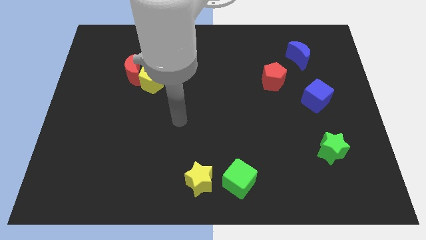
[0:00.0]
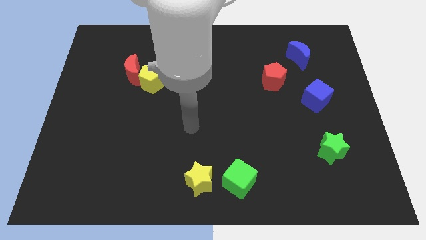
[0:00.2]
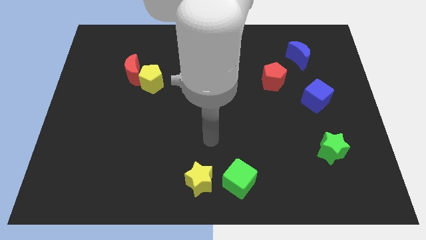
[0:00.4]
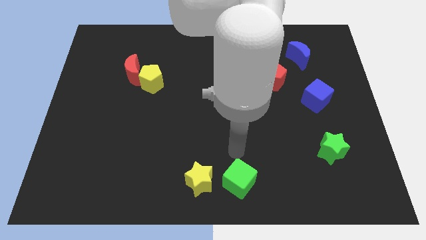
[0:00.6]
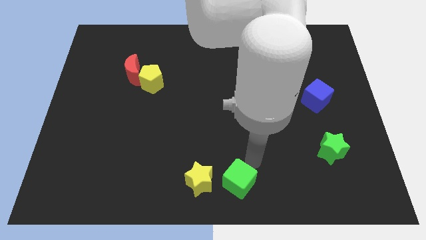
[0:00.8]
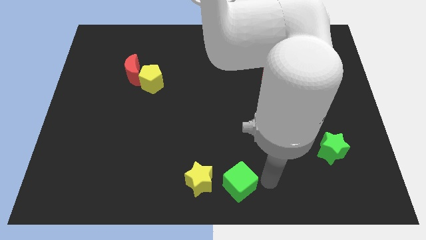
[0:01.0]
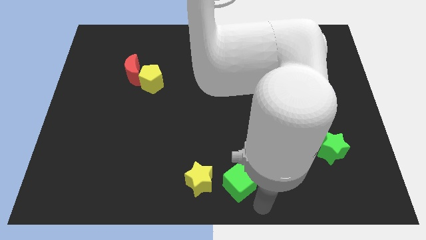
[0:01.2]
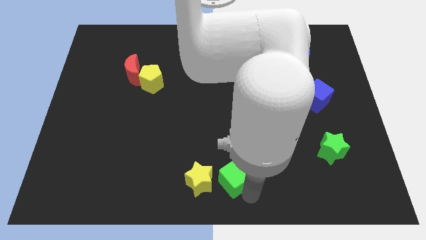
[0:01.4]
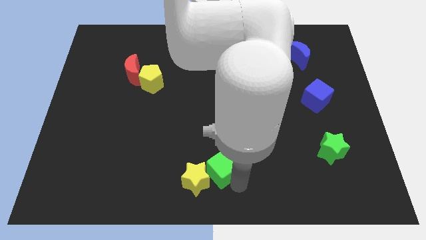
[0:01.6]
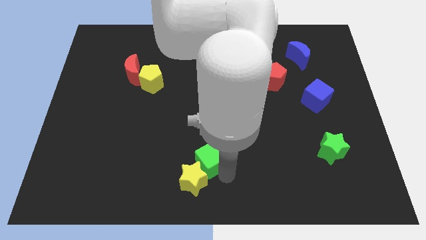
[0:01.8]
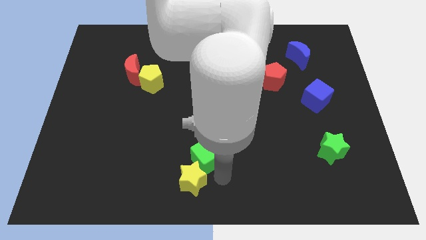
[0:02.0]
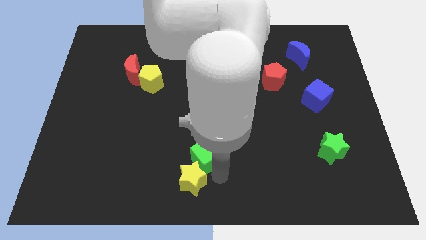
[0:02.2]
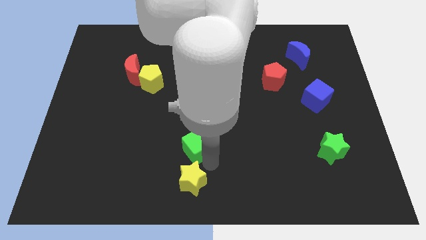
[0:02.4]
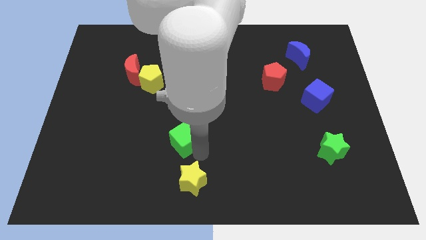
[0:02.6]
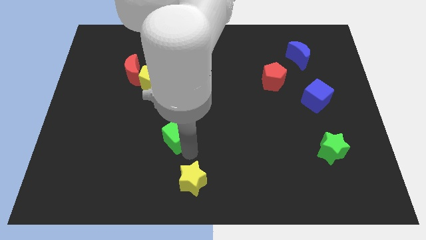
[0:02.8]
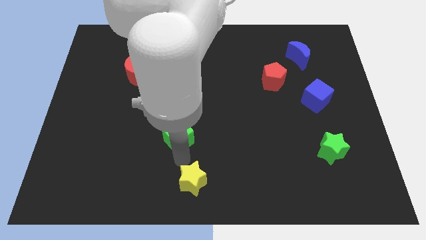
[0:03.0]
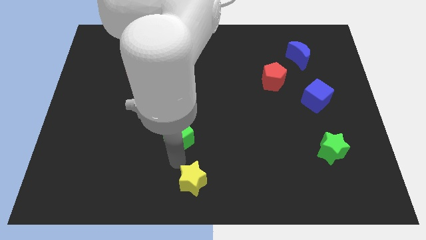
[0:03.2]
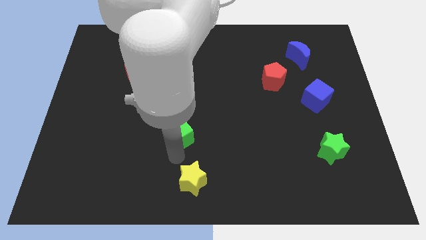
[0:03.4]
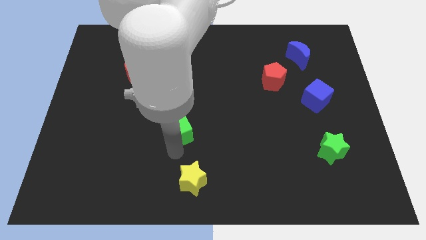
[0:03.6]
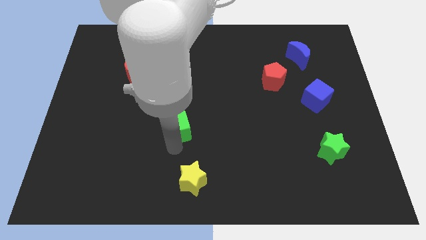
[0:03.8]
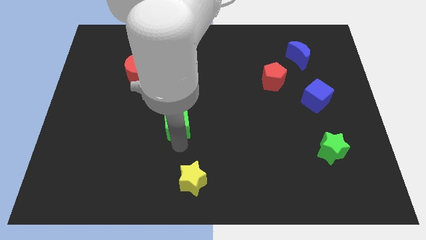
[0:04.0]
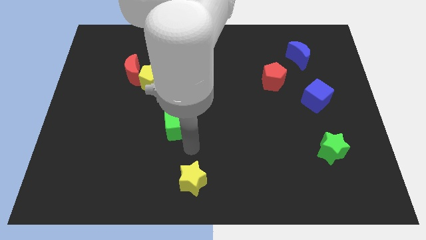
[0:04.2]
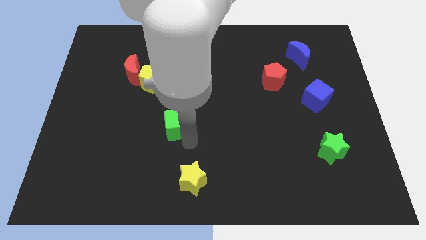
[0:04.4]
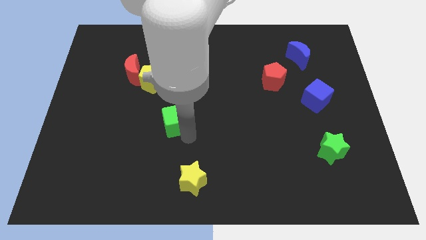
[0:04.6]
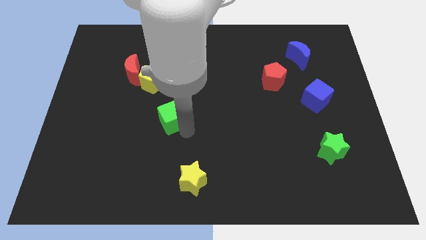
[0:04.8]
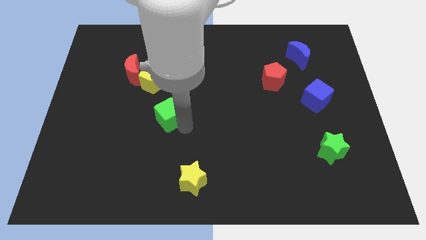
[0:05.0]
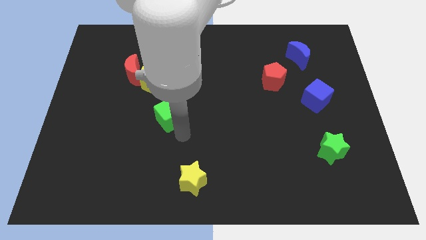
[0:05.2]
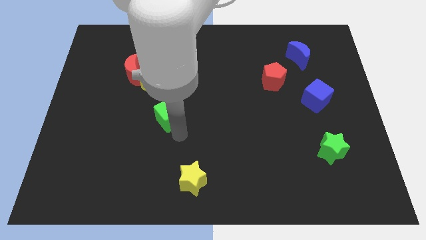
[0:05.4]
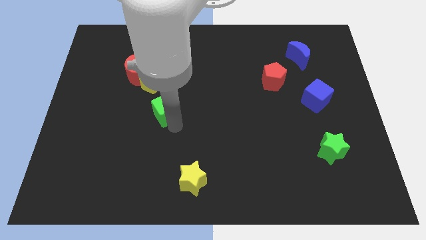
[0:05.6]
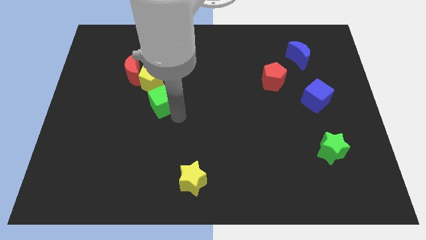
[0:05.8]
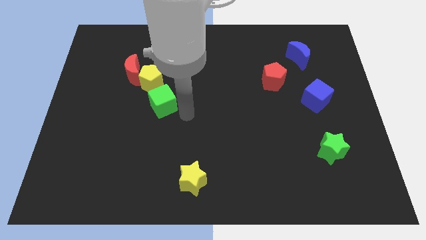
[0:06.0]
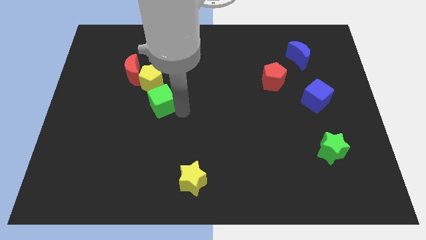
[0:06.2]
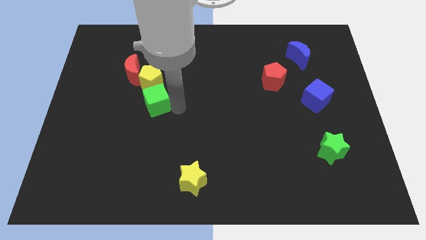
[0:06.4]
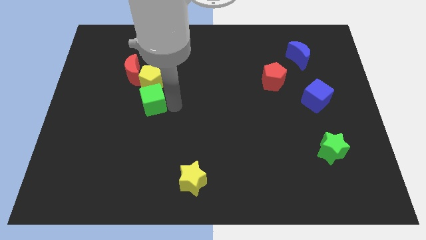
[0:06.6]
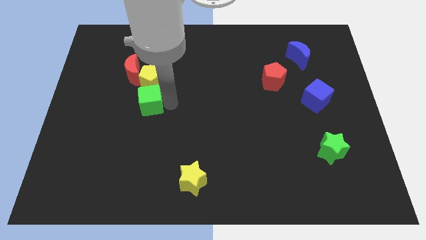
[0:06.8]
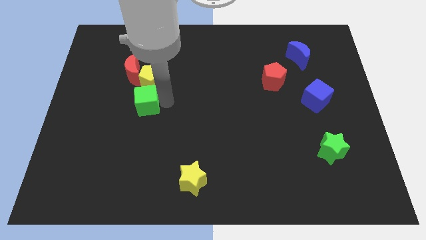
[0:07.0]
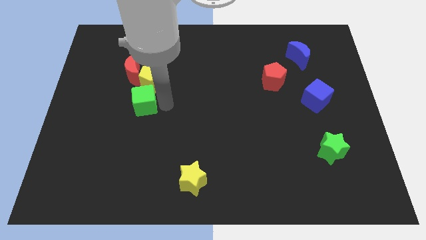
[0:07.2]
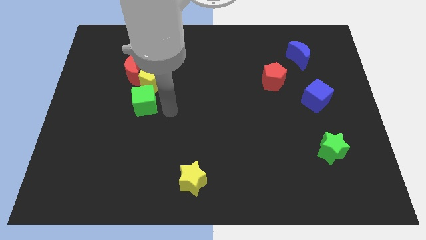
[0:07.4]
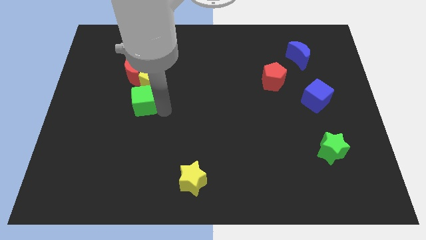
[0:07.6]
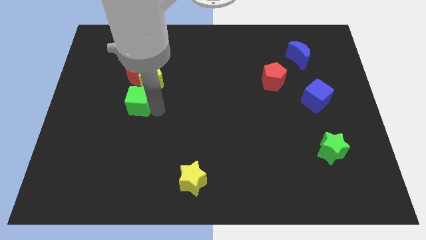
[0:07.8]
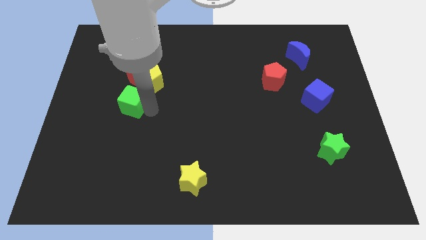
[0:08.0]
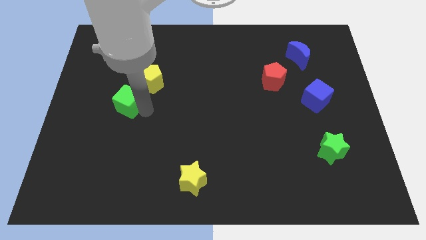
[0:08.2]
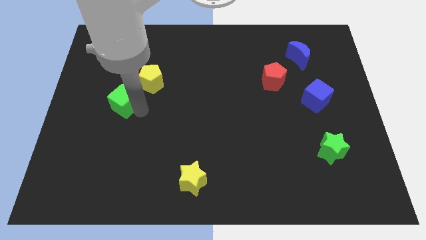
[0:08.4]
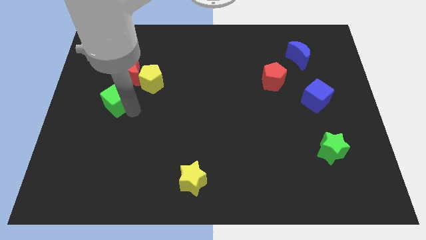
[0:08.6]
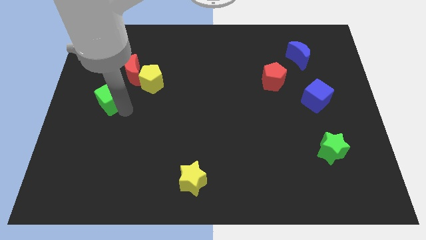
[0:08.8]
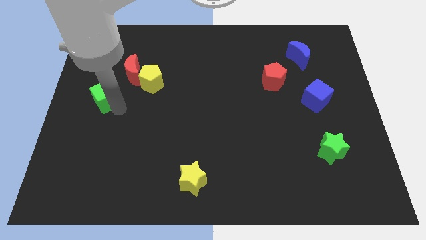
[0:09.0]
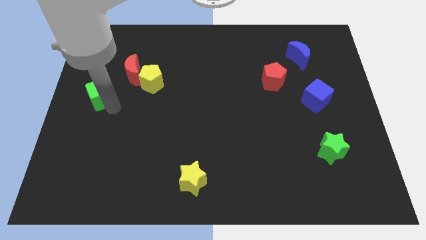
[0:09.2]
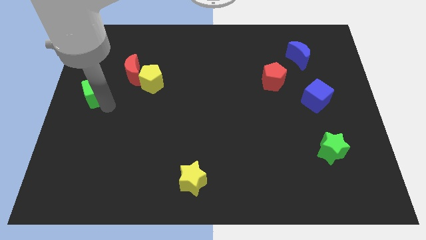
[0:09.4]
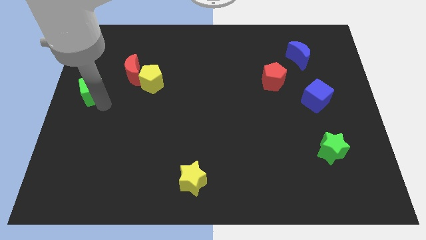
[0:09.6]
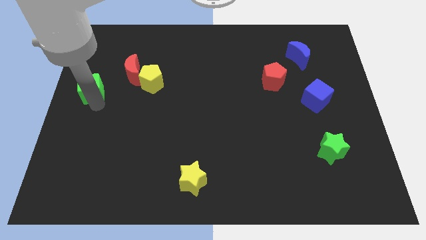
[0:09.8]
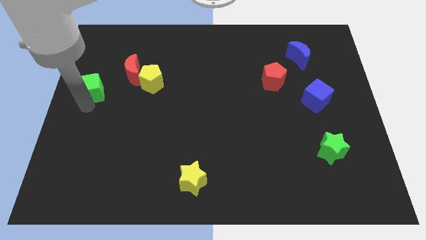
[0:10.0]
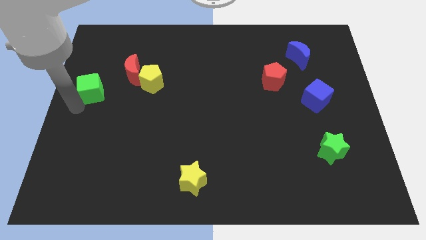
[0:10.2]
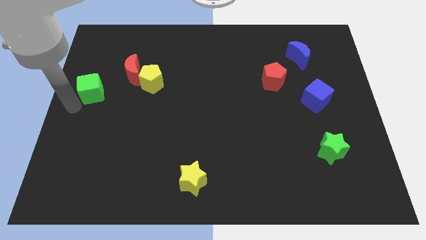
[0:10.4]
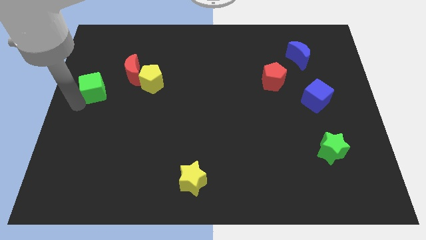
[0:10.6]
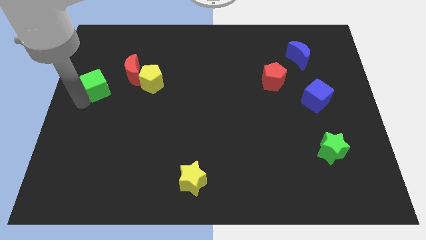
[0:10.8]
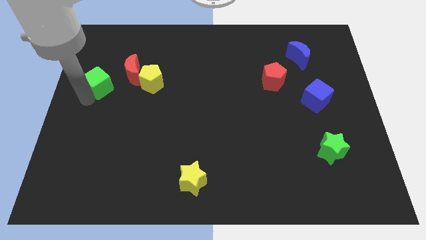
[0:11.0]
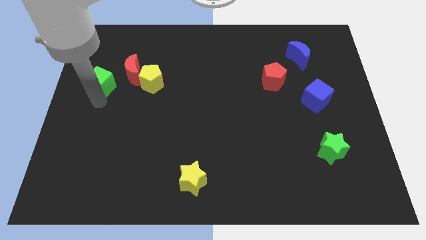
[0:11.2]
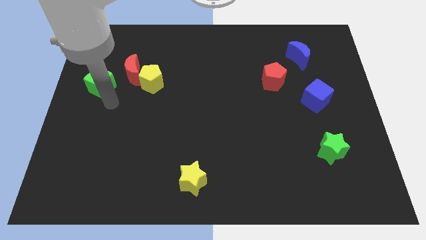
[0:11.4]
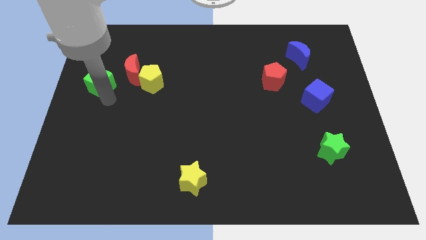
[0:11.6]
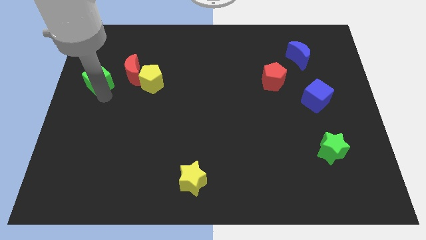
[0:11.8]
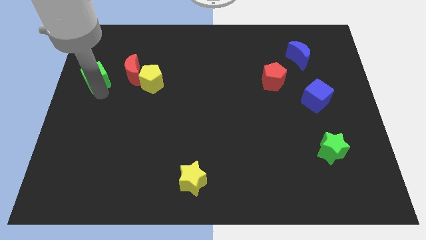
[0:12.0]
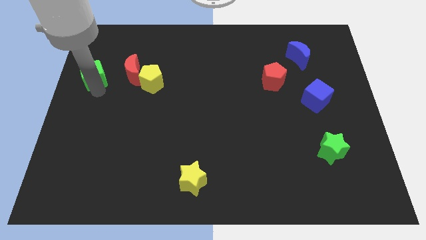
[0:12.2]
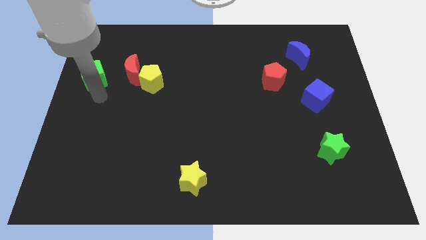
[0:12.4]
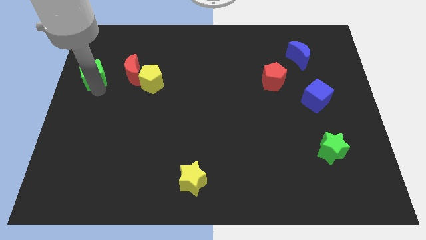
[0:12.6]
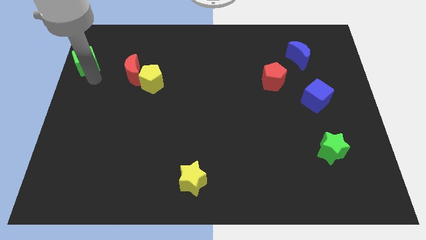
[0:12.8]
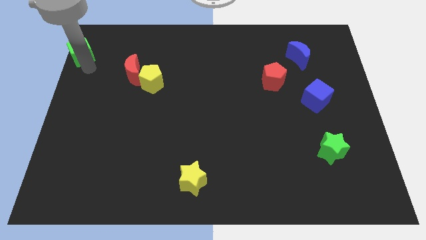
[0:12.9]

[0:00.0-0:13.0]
push the green cube to the top left corner

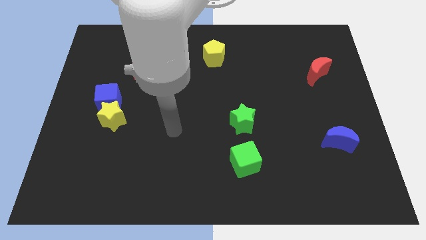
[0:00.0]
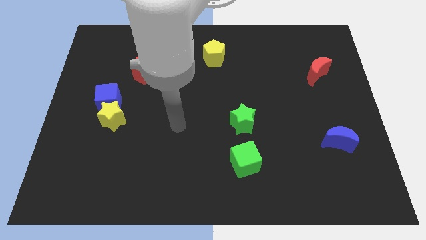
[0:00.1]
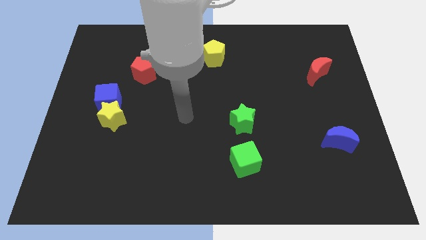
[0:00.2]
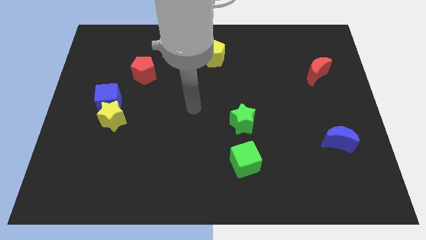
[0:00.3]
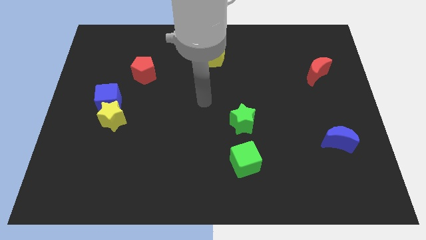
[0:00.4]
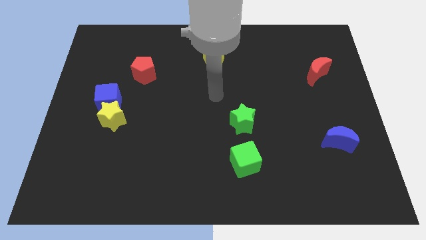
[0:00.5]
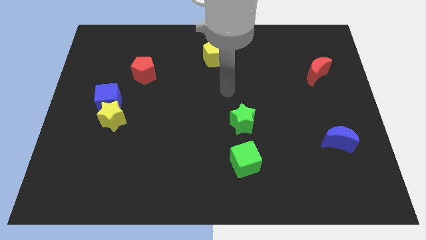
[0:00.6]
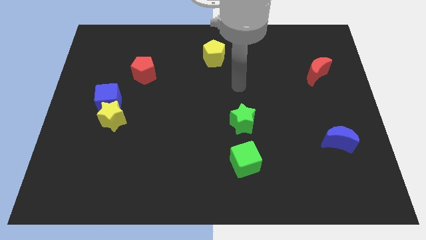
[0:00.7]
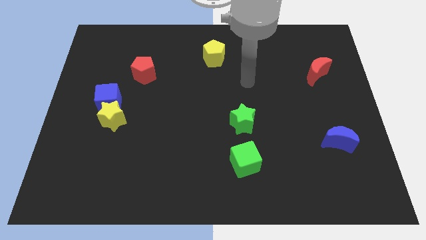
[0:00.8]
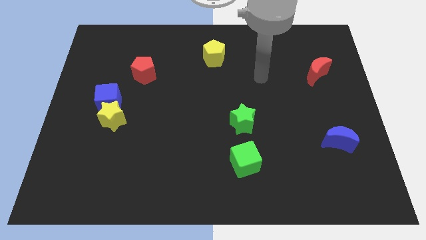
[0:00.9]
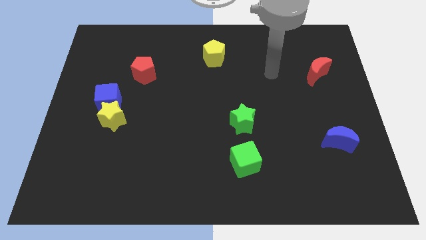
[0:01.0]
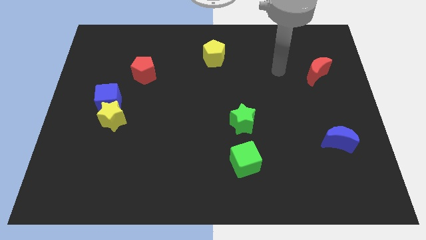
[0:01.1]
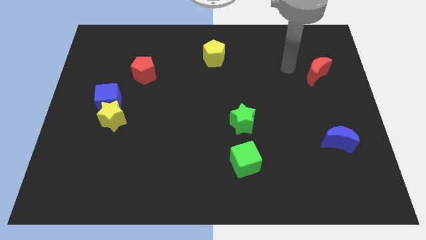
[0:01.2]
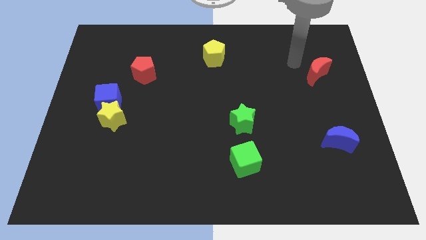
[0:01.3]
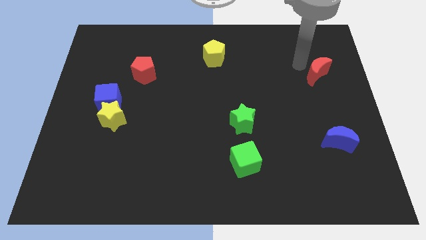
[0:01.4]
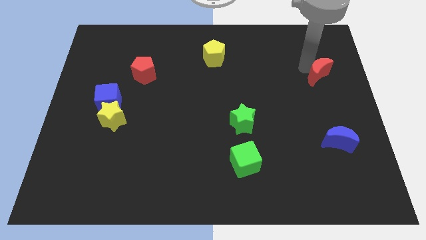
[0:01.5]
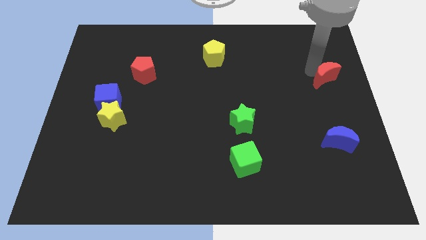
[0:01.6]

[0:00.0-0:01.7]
move the red moon to the right side of the board
